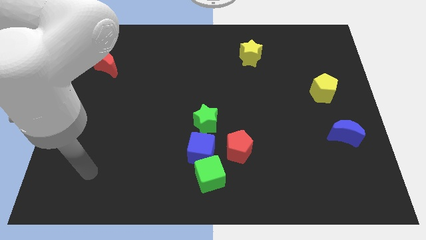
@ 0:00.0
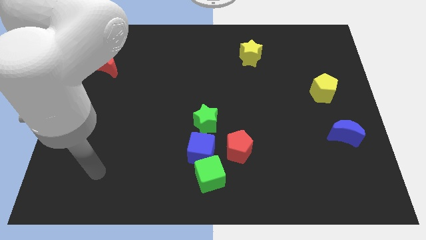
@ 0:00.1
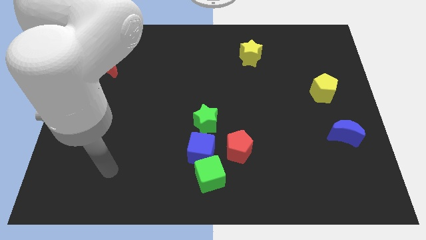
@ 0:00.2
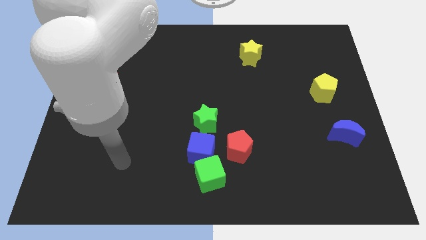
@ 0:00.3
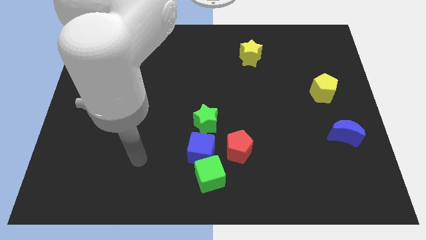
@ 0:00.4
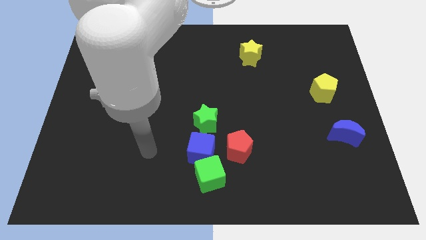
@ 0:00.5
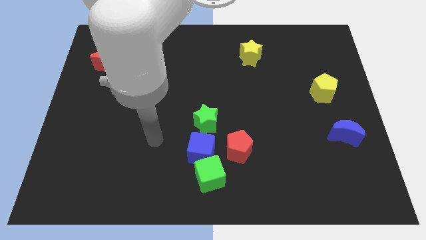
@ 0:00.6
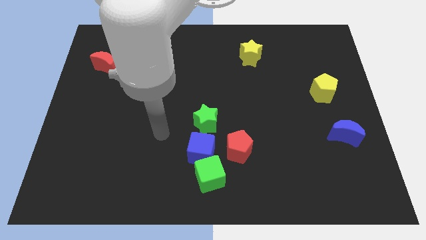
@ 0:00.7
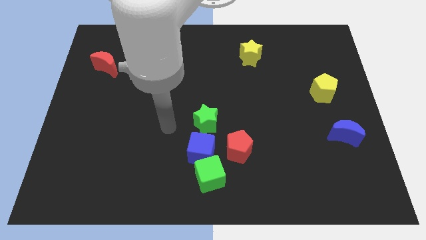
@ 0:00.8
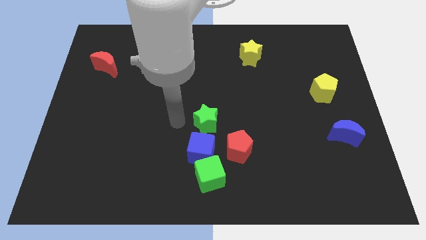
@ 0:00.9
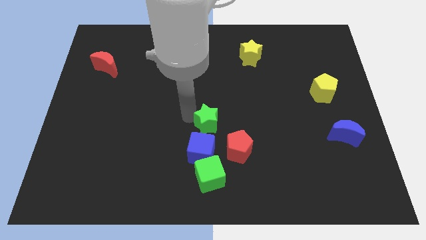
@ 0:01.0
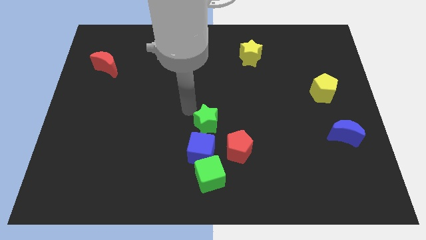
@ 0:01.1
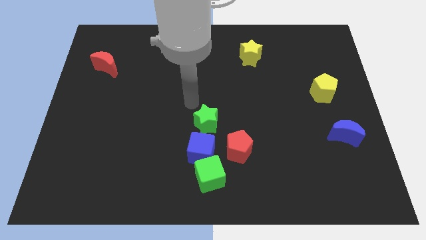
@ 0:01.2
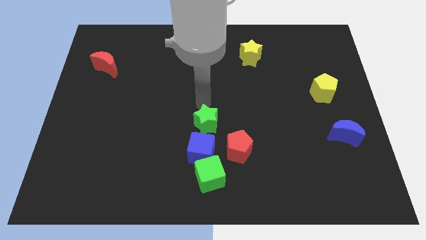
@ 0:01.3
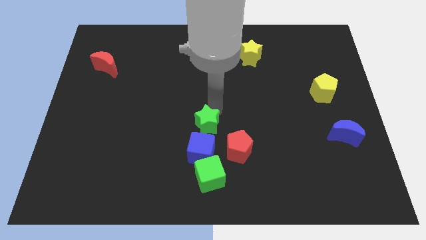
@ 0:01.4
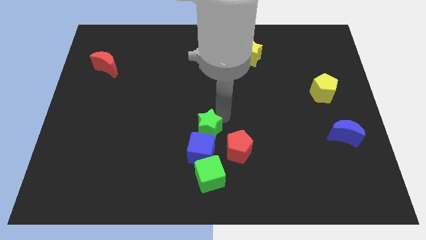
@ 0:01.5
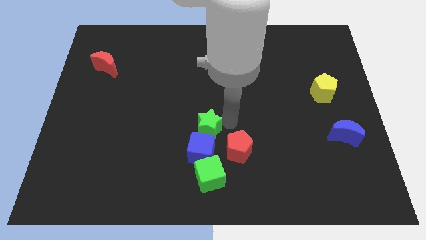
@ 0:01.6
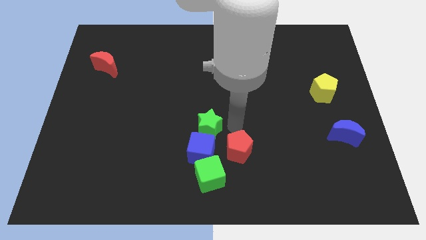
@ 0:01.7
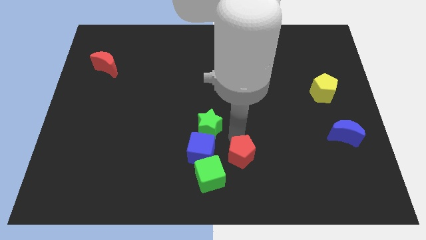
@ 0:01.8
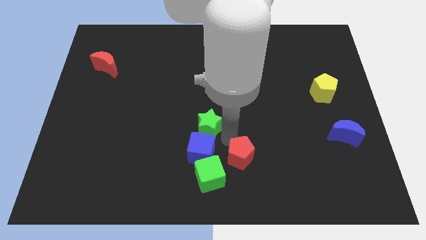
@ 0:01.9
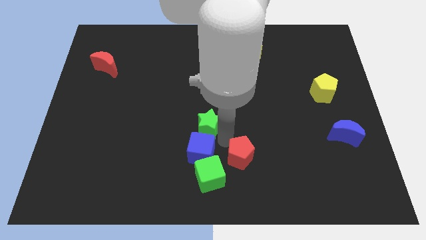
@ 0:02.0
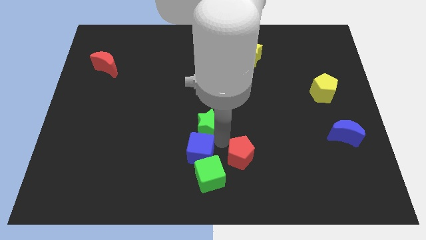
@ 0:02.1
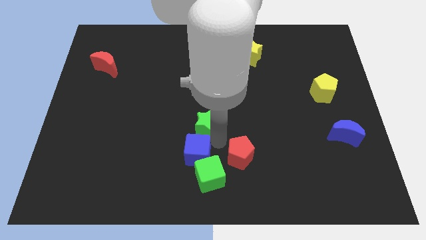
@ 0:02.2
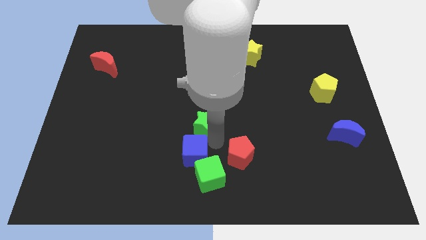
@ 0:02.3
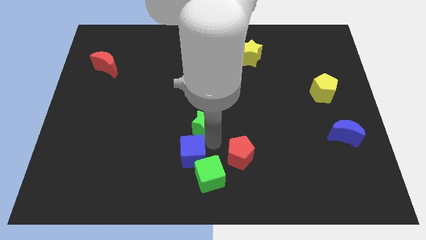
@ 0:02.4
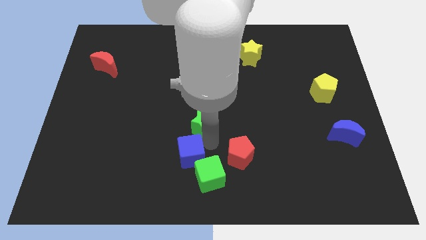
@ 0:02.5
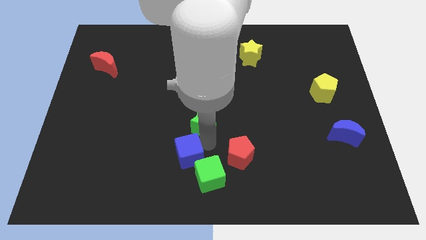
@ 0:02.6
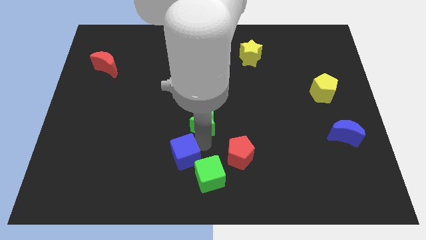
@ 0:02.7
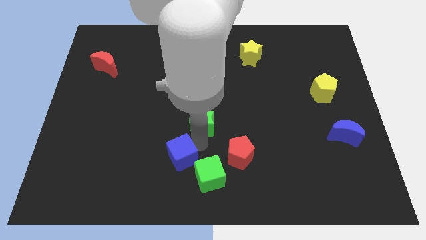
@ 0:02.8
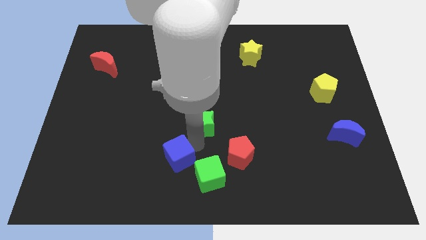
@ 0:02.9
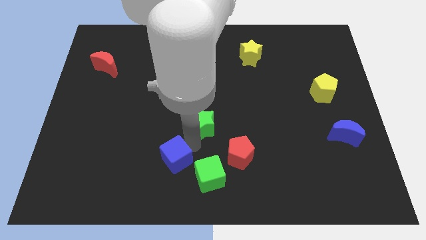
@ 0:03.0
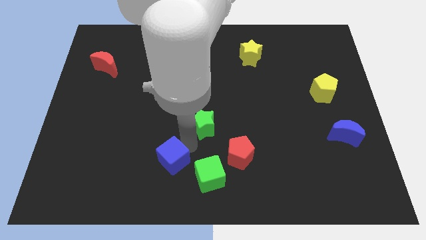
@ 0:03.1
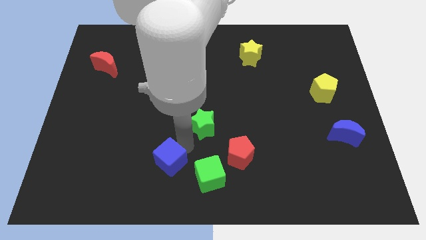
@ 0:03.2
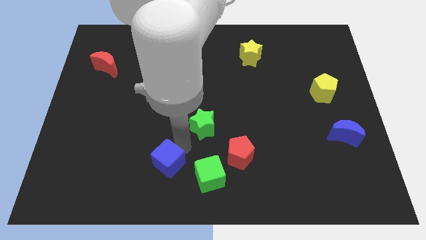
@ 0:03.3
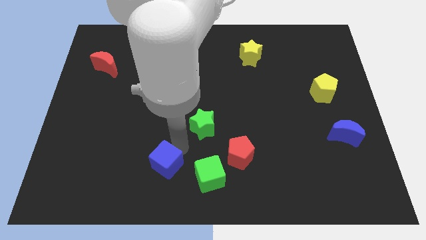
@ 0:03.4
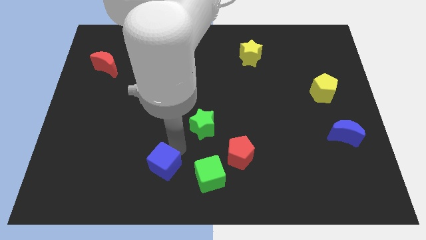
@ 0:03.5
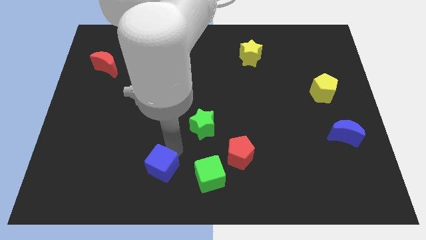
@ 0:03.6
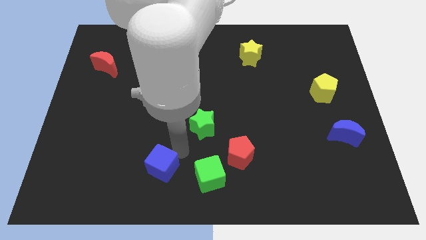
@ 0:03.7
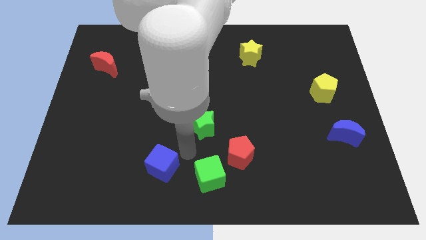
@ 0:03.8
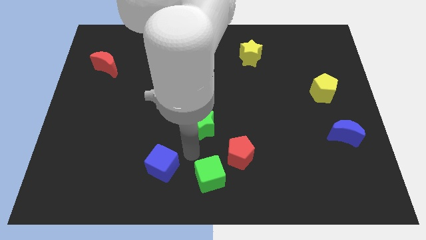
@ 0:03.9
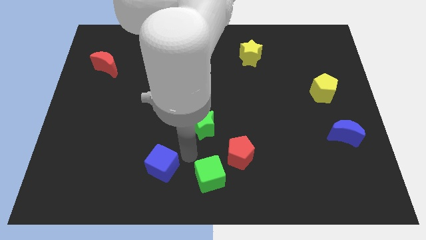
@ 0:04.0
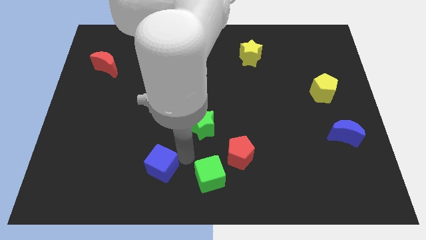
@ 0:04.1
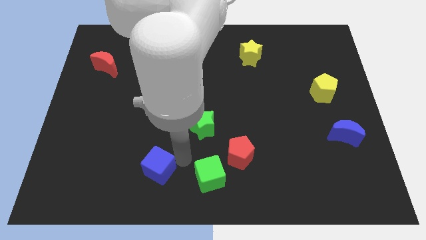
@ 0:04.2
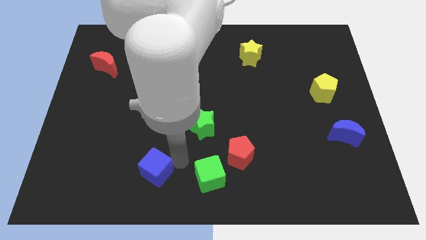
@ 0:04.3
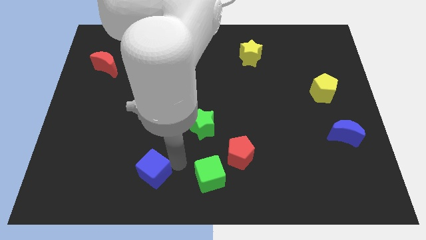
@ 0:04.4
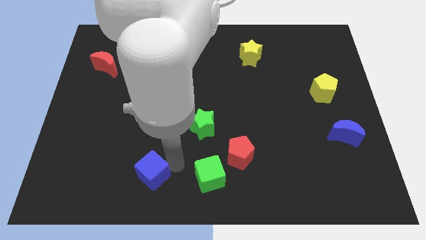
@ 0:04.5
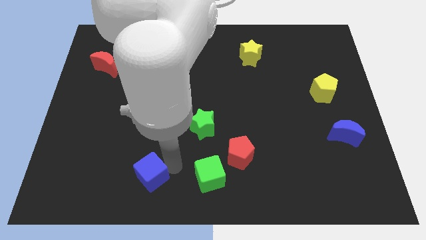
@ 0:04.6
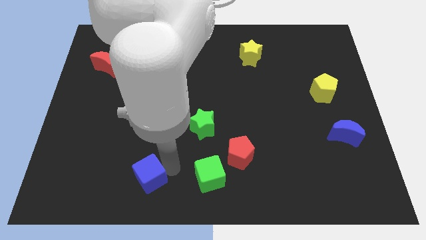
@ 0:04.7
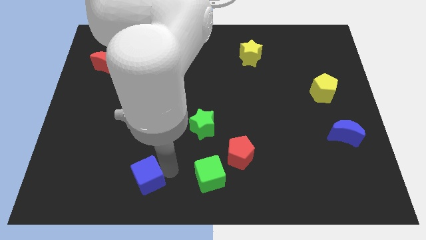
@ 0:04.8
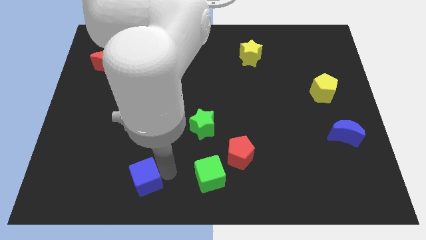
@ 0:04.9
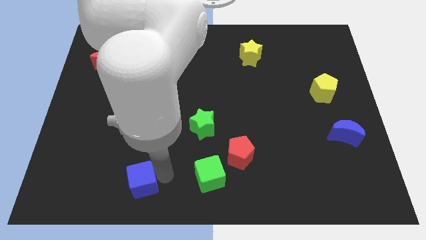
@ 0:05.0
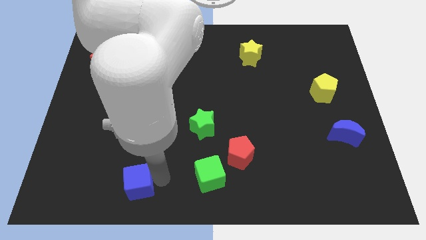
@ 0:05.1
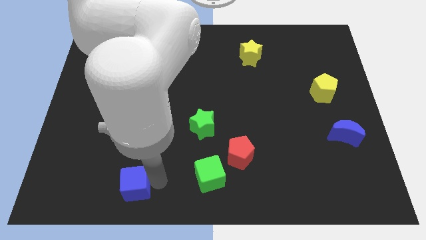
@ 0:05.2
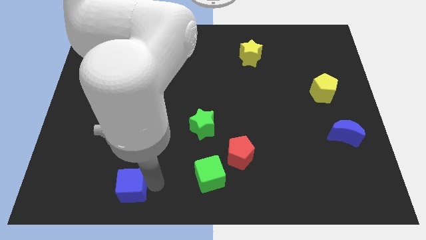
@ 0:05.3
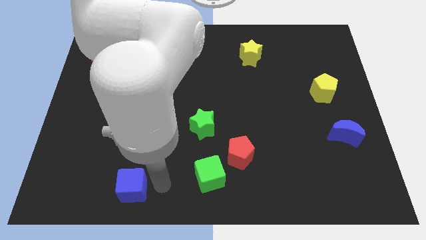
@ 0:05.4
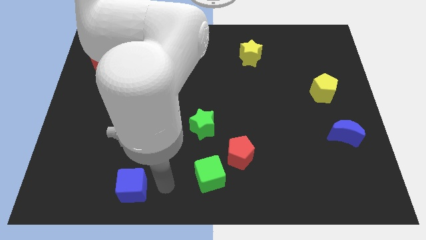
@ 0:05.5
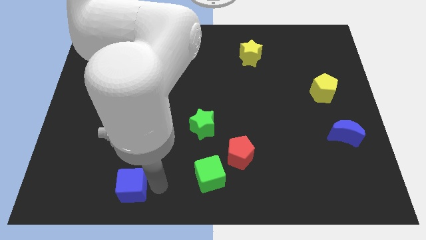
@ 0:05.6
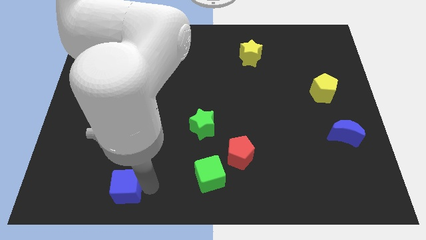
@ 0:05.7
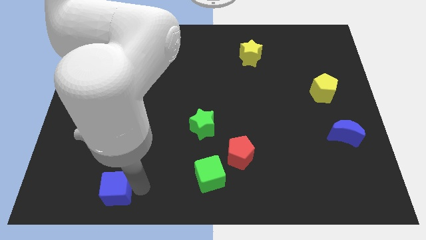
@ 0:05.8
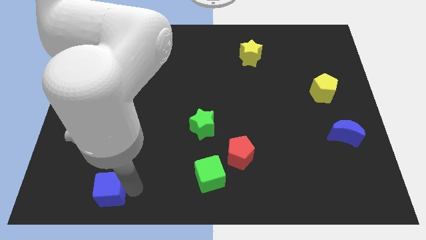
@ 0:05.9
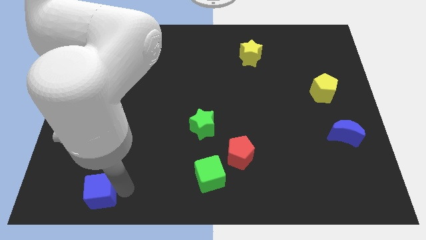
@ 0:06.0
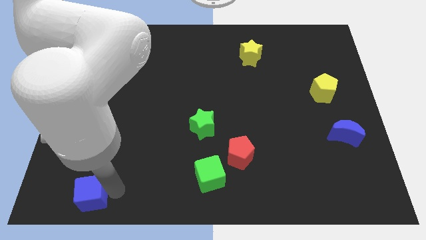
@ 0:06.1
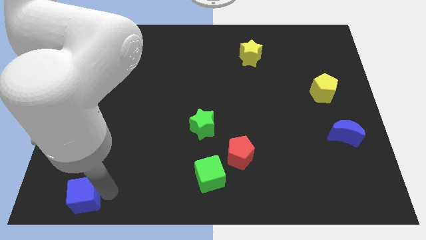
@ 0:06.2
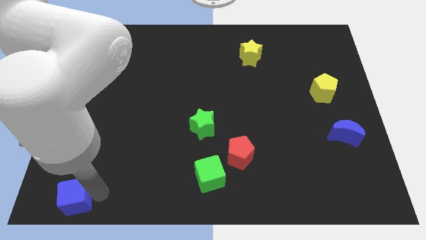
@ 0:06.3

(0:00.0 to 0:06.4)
move the blue cube to the bottom left of the board
